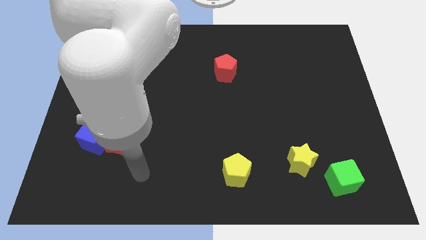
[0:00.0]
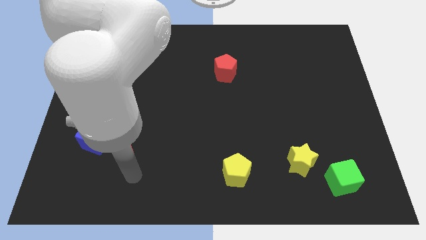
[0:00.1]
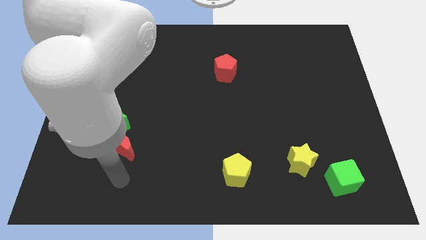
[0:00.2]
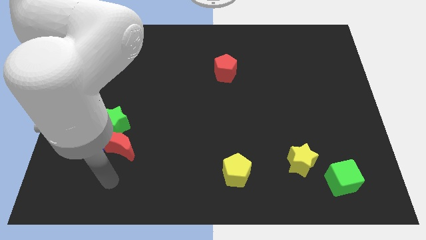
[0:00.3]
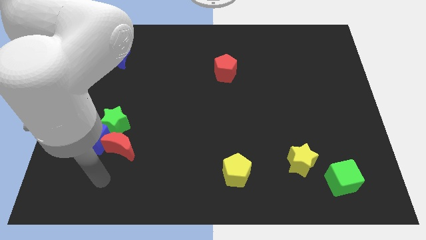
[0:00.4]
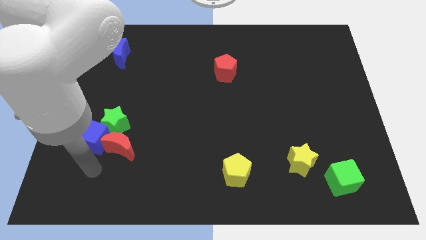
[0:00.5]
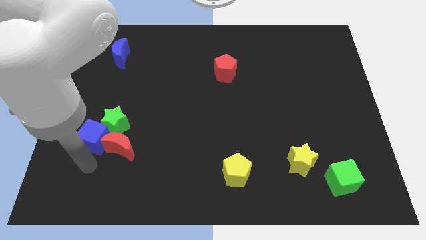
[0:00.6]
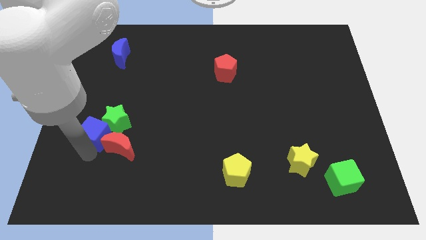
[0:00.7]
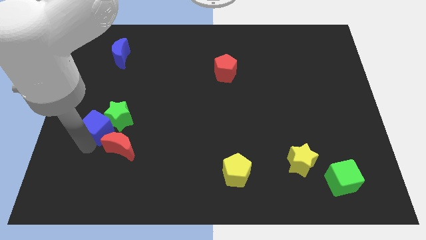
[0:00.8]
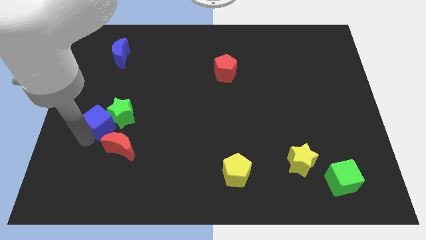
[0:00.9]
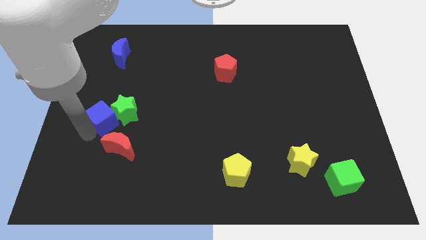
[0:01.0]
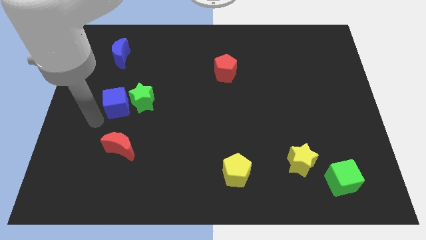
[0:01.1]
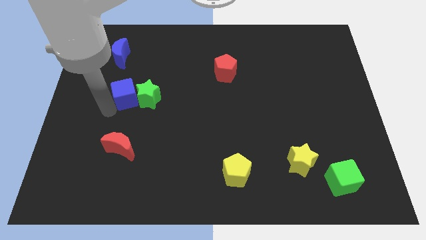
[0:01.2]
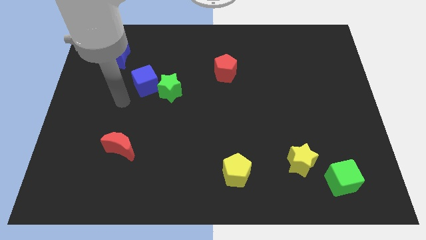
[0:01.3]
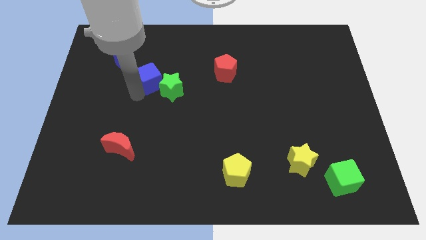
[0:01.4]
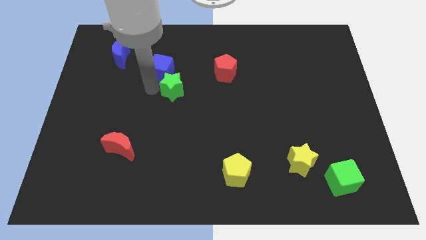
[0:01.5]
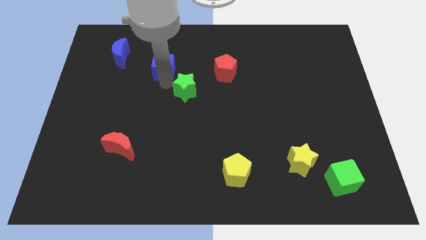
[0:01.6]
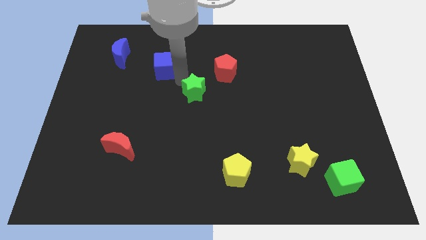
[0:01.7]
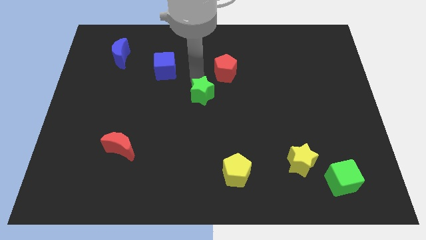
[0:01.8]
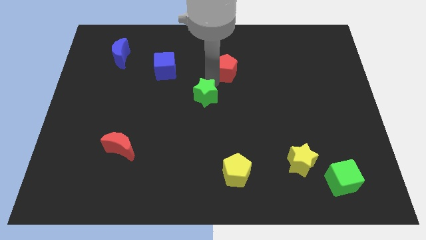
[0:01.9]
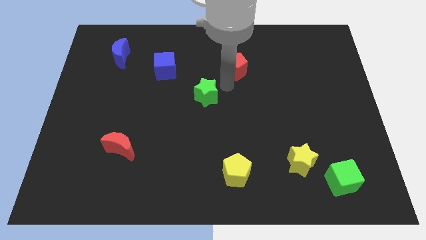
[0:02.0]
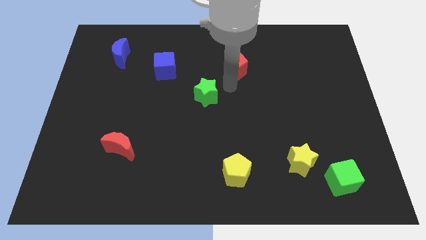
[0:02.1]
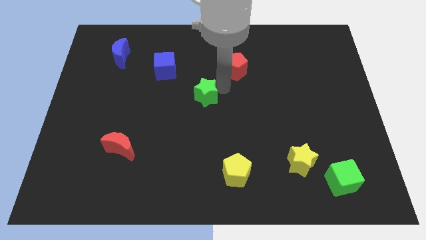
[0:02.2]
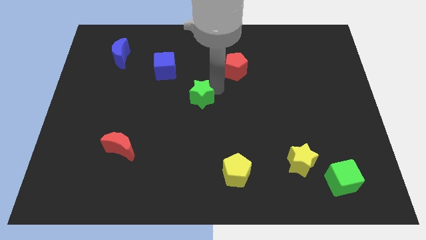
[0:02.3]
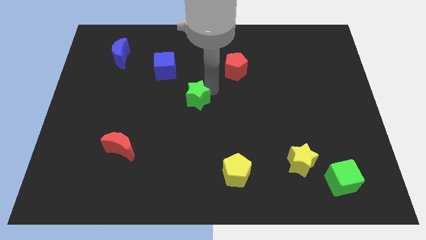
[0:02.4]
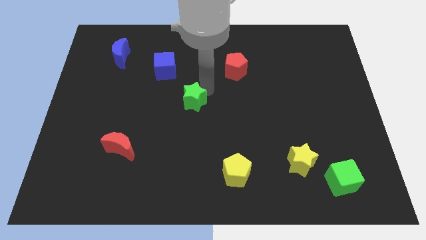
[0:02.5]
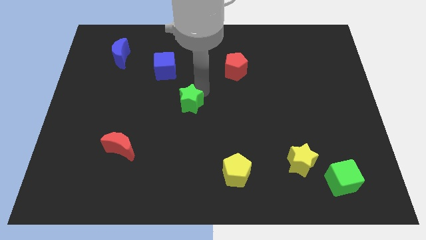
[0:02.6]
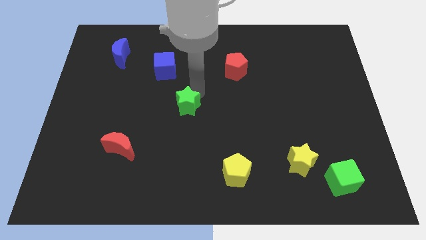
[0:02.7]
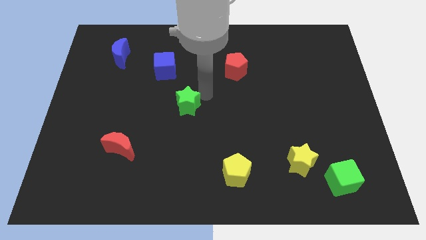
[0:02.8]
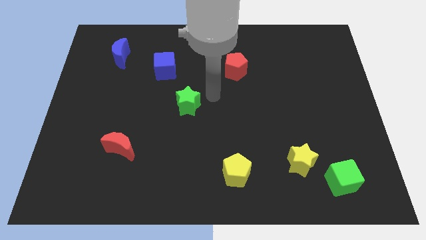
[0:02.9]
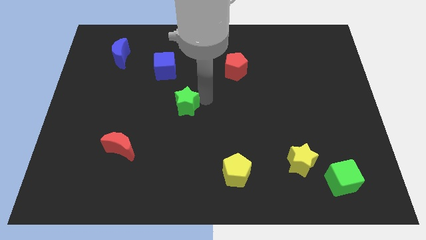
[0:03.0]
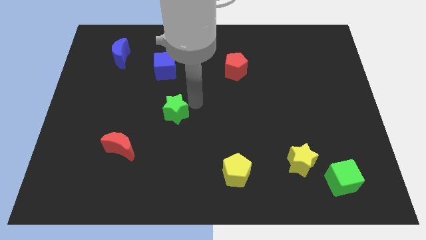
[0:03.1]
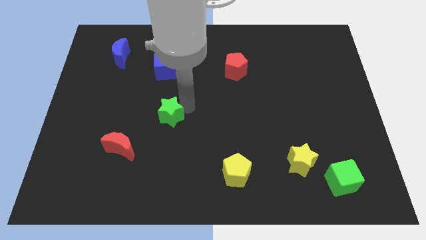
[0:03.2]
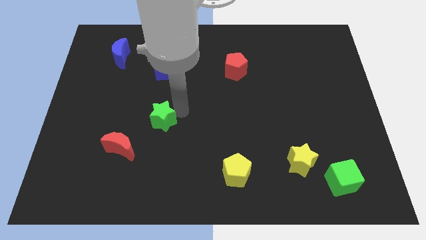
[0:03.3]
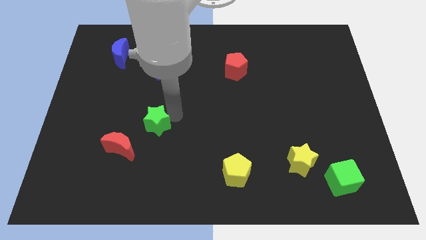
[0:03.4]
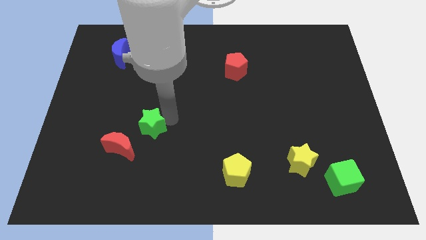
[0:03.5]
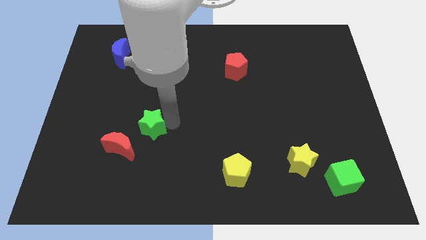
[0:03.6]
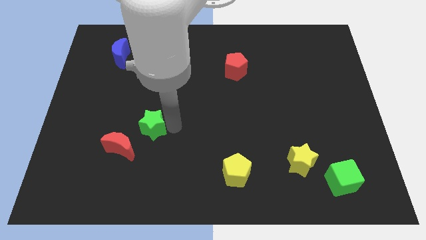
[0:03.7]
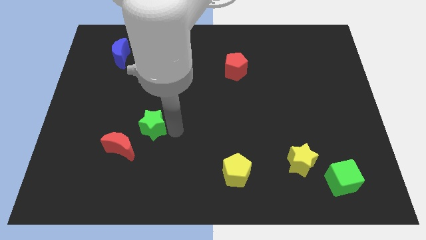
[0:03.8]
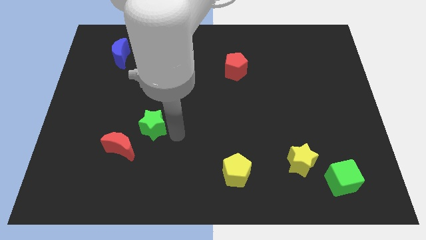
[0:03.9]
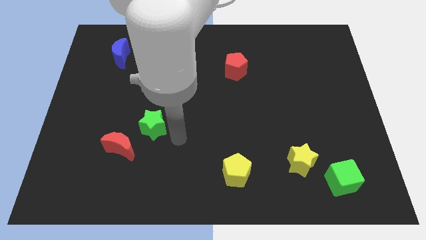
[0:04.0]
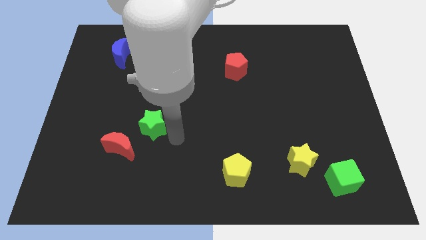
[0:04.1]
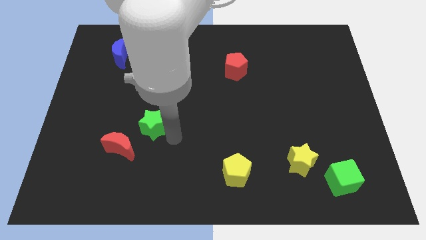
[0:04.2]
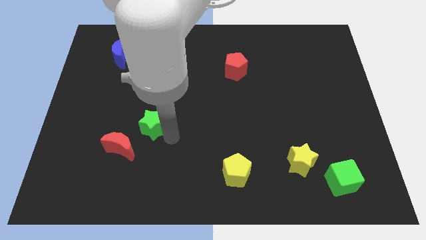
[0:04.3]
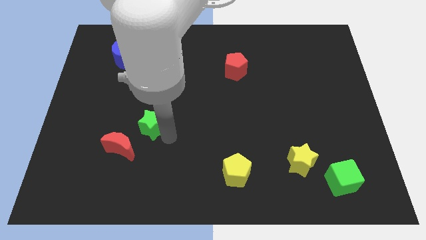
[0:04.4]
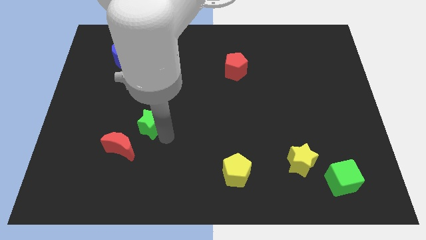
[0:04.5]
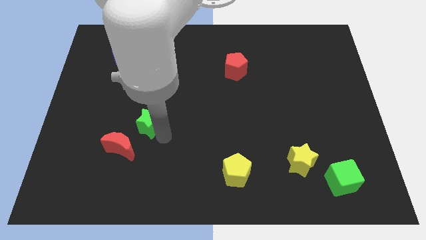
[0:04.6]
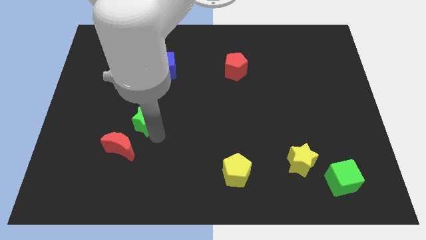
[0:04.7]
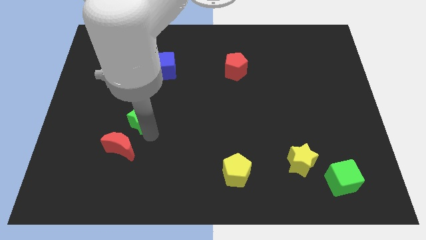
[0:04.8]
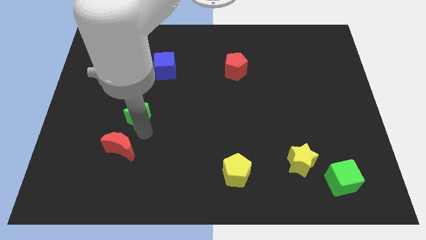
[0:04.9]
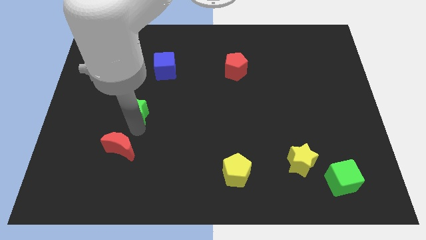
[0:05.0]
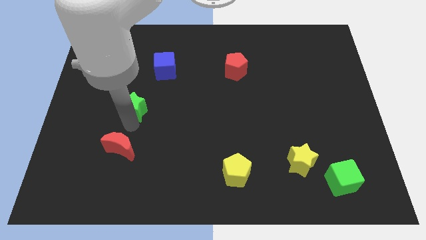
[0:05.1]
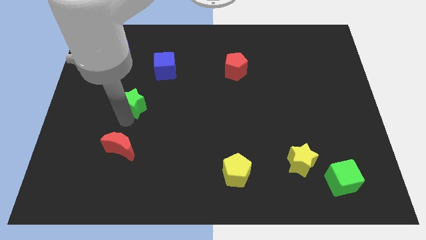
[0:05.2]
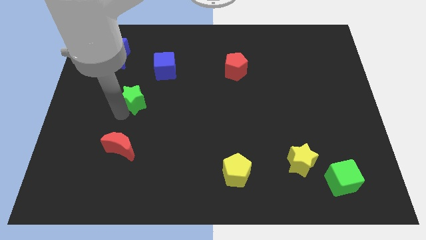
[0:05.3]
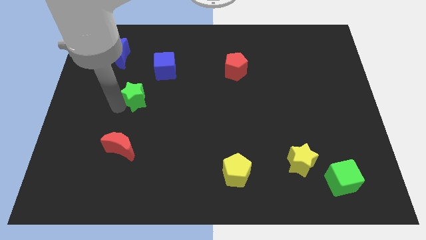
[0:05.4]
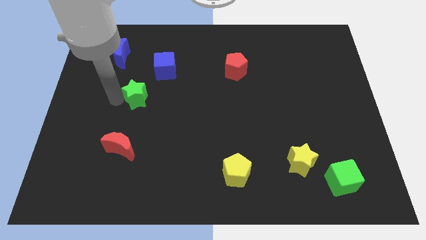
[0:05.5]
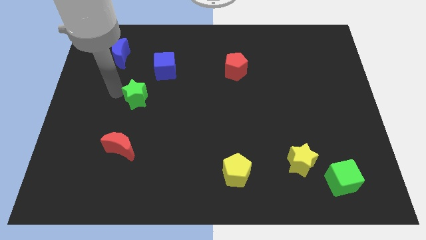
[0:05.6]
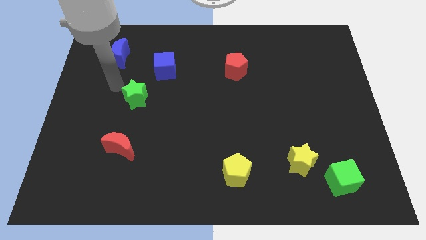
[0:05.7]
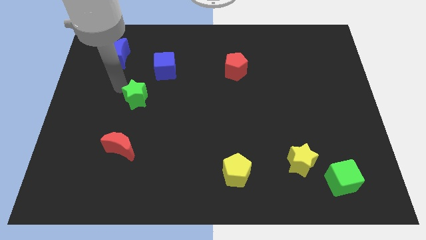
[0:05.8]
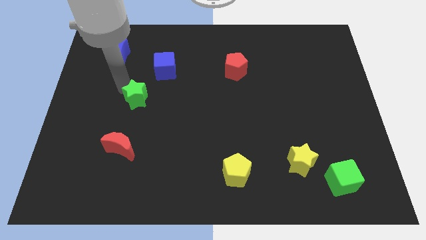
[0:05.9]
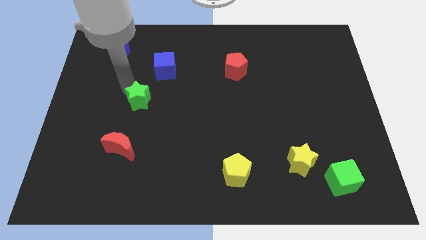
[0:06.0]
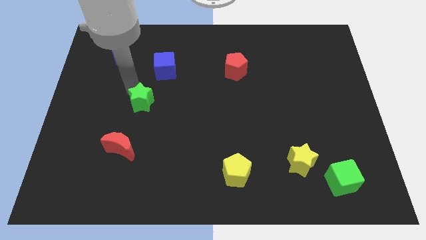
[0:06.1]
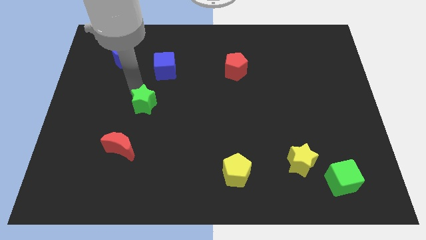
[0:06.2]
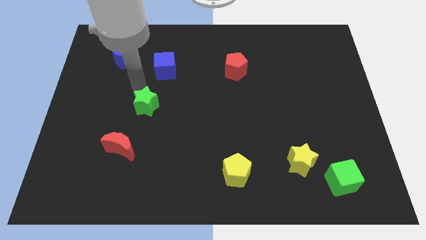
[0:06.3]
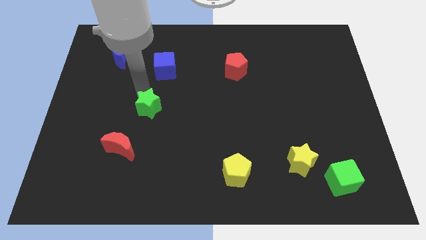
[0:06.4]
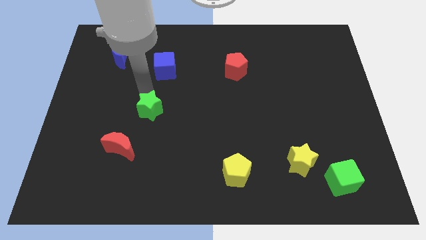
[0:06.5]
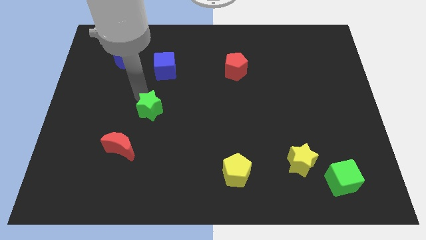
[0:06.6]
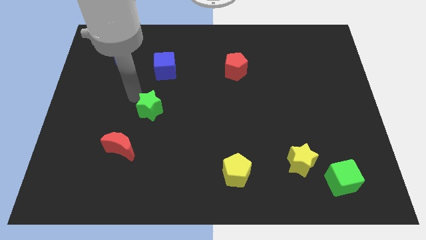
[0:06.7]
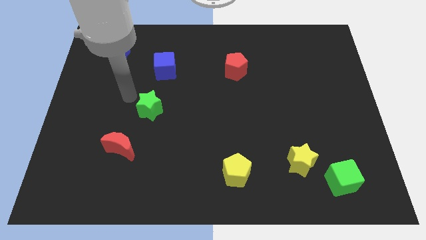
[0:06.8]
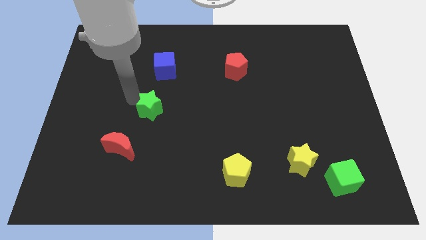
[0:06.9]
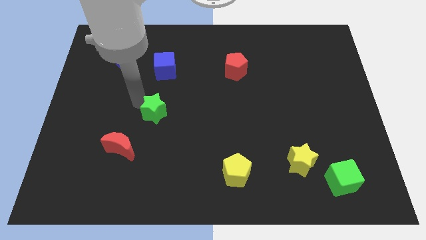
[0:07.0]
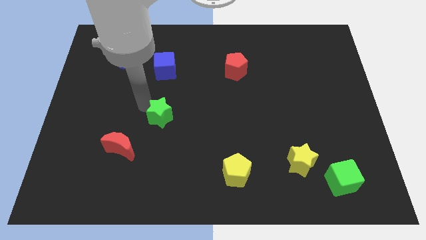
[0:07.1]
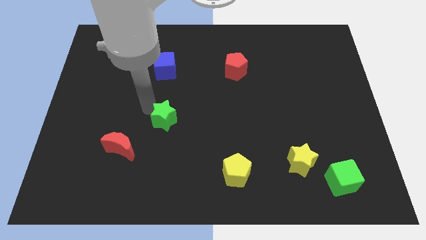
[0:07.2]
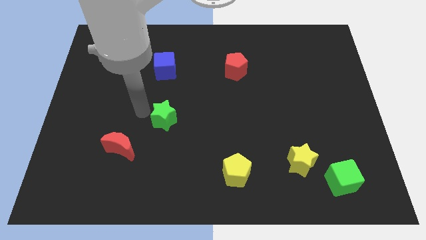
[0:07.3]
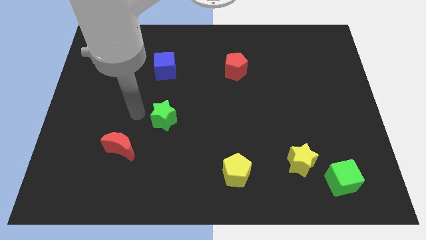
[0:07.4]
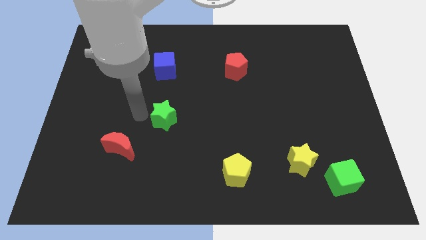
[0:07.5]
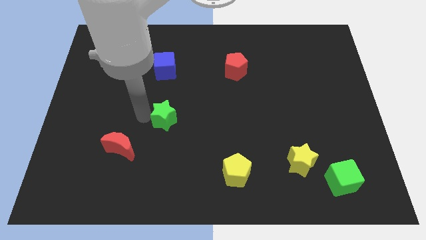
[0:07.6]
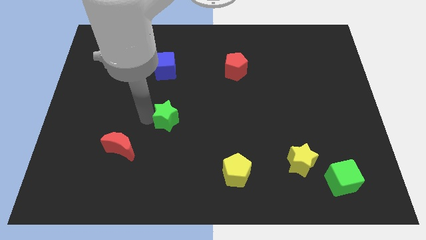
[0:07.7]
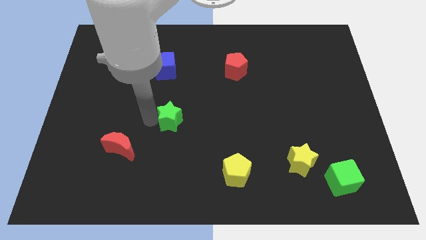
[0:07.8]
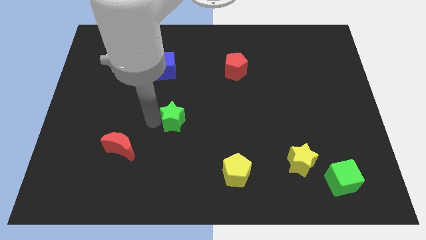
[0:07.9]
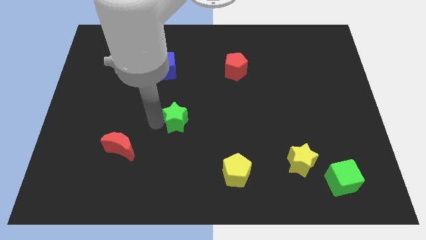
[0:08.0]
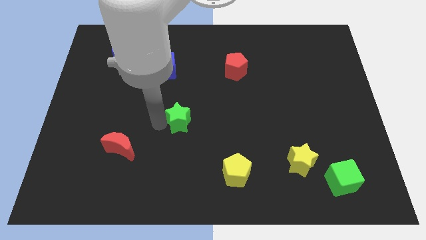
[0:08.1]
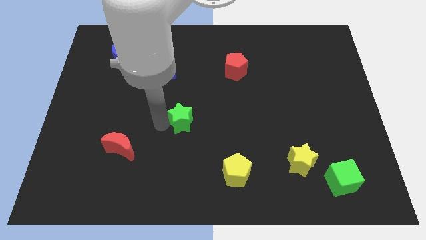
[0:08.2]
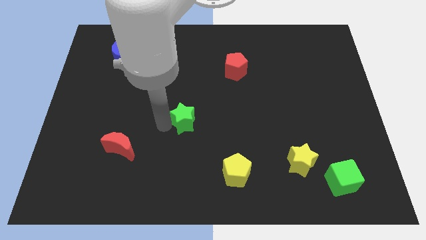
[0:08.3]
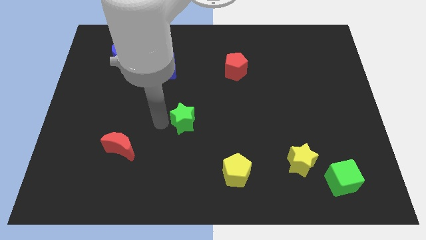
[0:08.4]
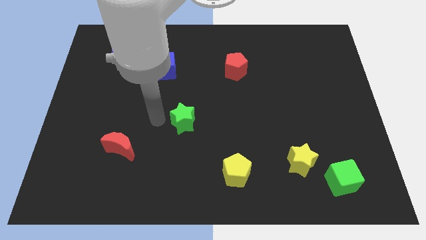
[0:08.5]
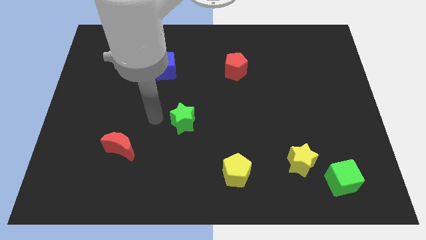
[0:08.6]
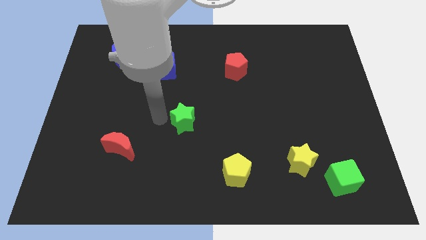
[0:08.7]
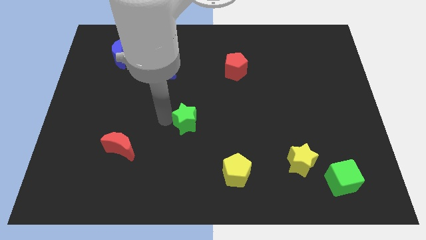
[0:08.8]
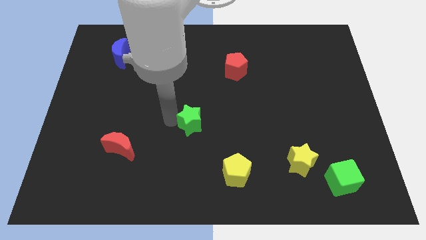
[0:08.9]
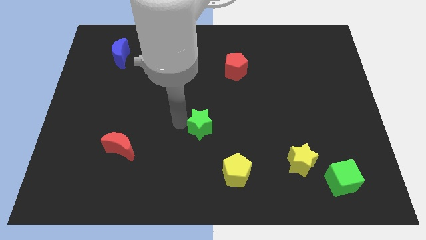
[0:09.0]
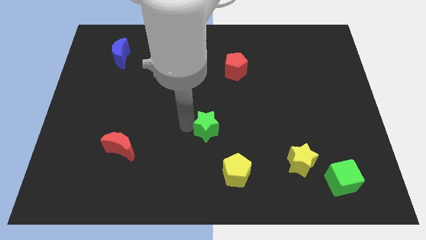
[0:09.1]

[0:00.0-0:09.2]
push the green star to the right
